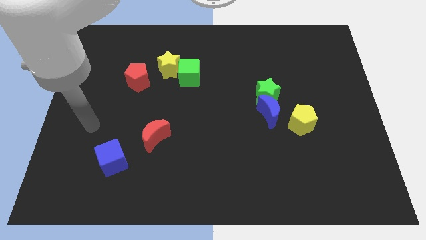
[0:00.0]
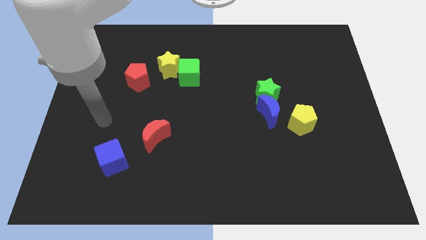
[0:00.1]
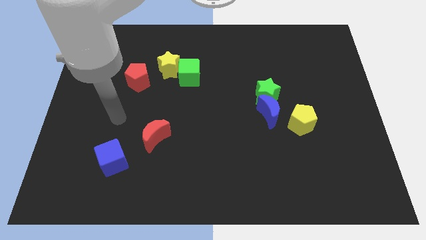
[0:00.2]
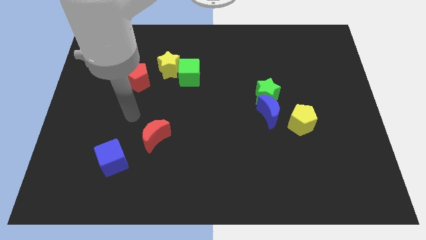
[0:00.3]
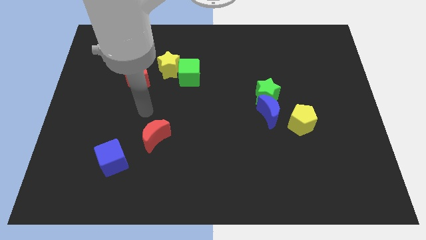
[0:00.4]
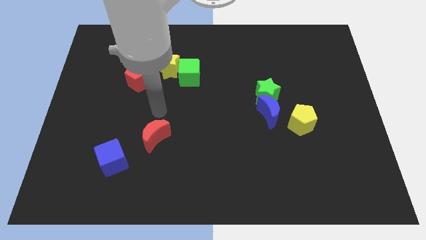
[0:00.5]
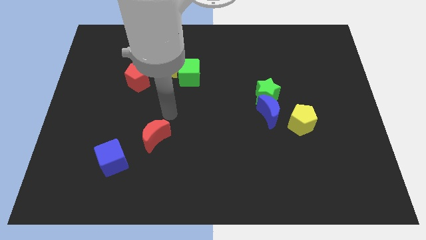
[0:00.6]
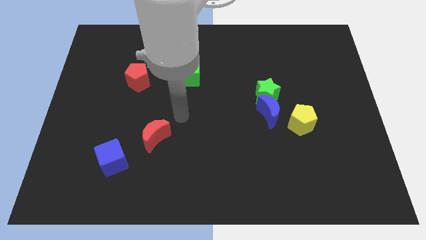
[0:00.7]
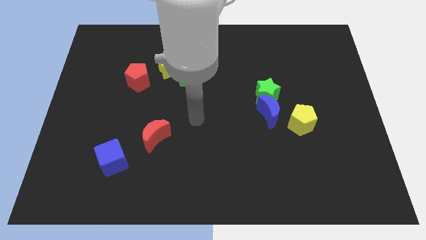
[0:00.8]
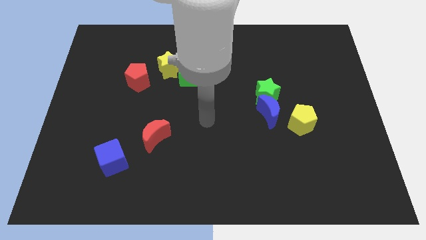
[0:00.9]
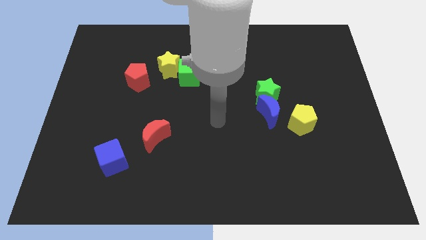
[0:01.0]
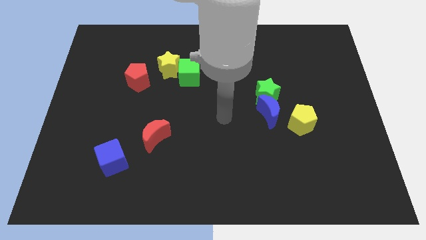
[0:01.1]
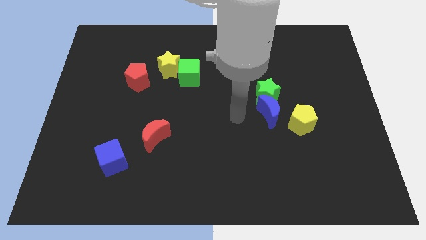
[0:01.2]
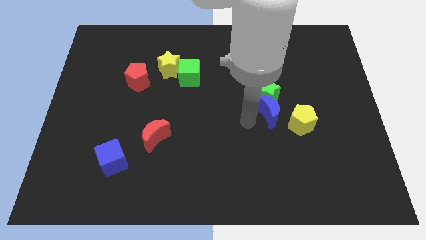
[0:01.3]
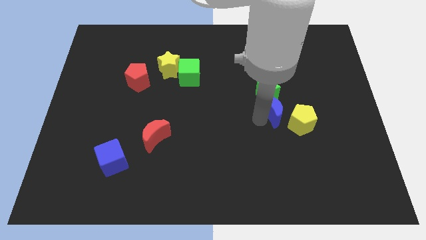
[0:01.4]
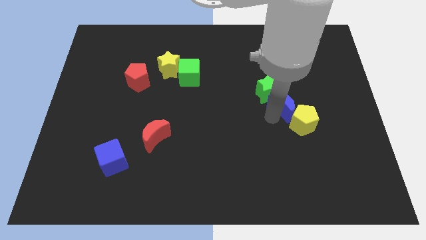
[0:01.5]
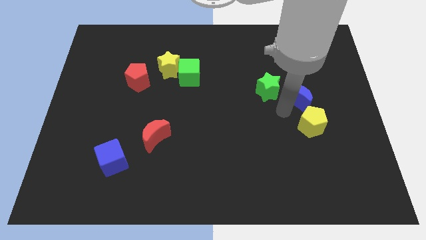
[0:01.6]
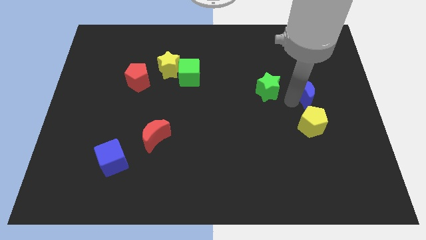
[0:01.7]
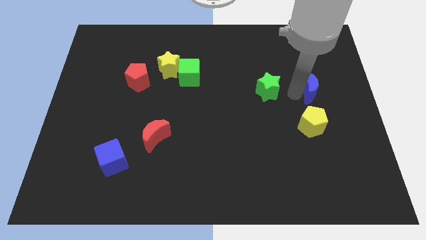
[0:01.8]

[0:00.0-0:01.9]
separate the green star from the blue moon

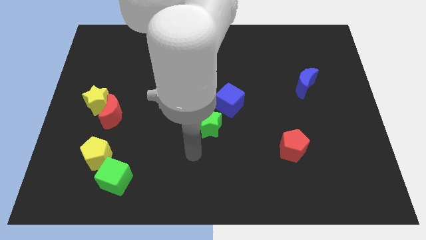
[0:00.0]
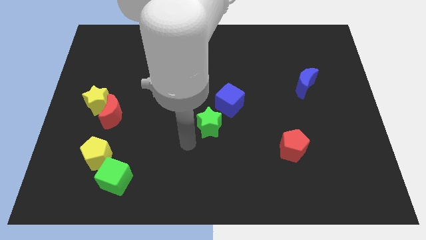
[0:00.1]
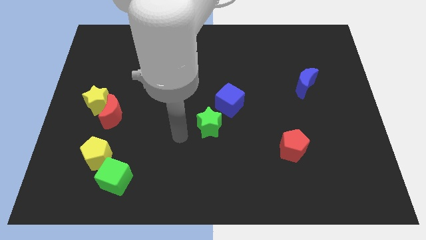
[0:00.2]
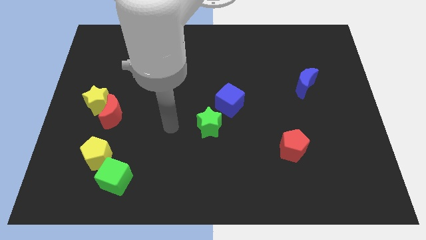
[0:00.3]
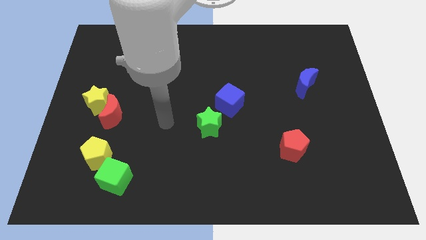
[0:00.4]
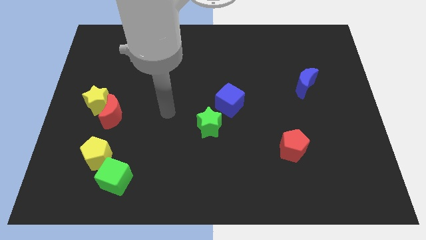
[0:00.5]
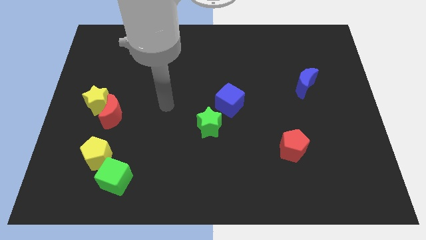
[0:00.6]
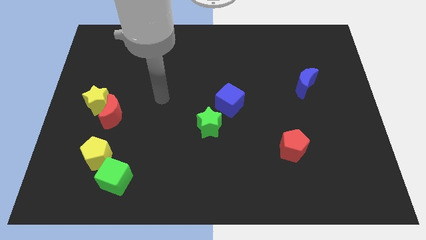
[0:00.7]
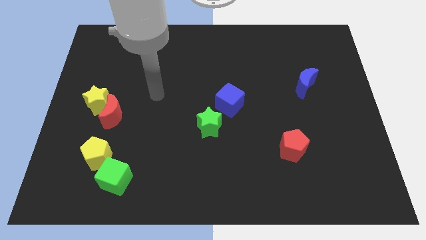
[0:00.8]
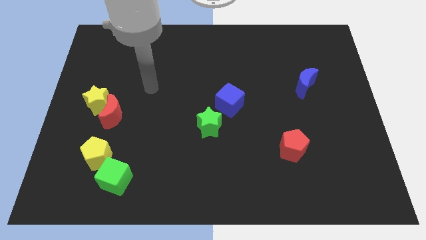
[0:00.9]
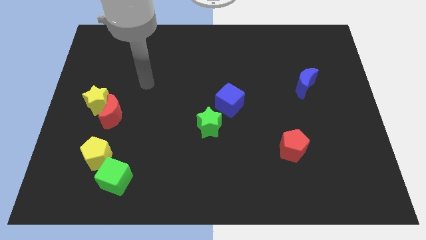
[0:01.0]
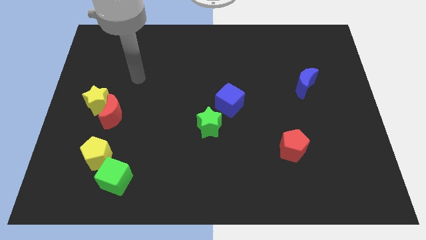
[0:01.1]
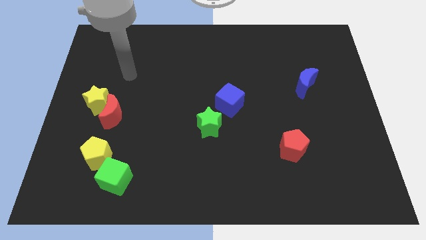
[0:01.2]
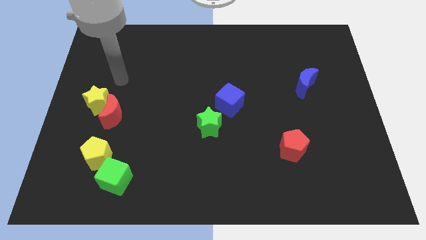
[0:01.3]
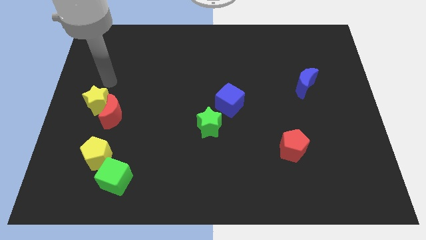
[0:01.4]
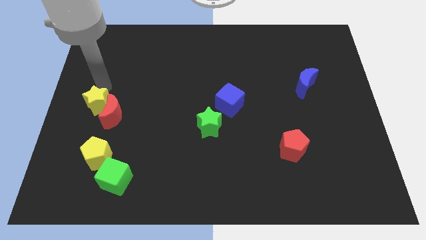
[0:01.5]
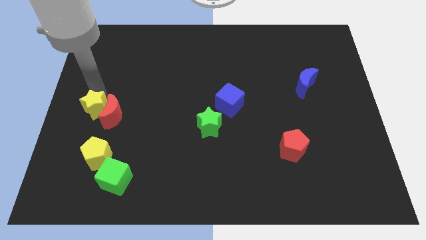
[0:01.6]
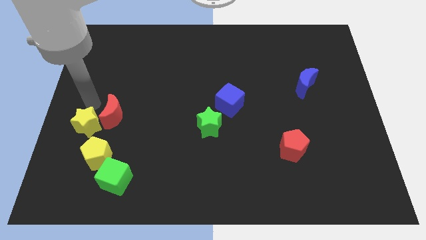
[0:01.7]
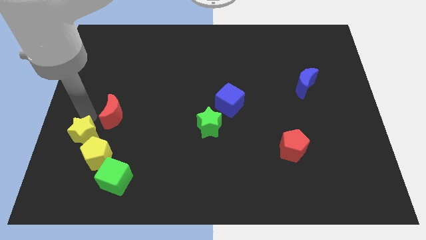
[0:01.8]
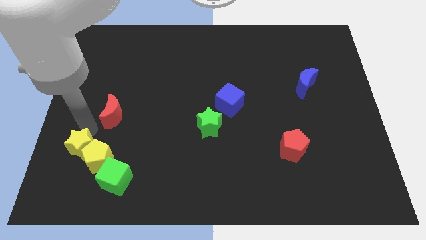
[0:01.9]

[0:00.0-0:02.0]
move the red moon away from the yellow star

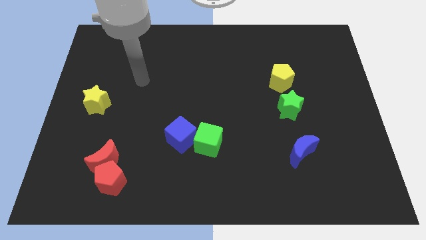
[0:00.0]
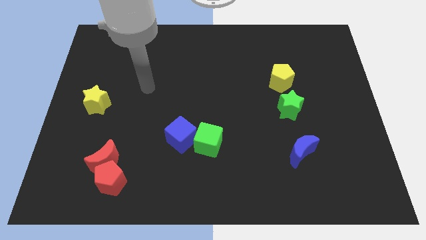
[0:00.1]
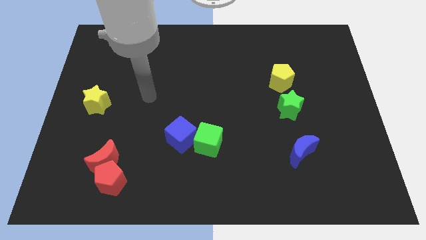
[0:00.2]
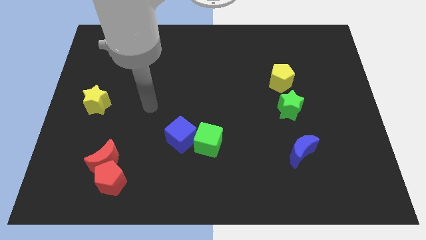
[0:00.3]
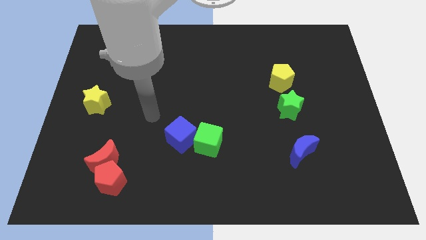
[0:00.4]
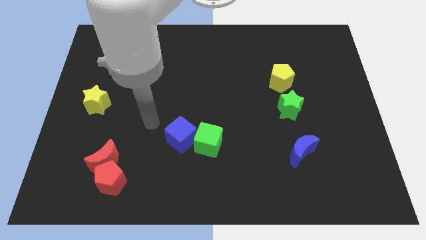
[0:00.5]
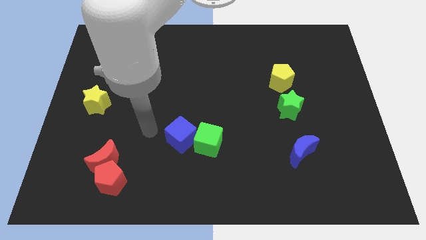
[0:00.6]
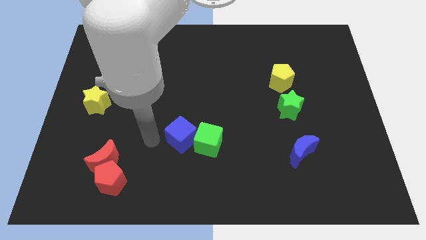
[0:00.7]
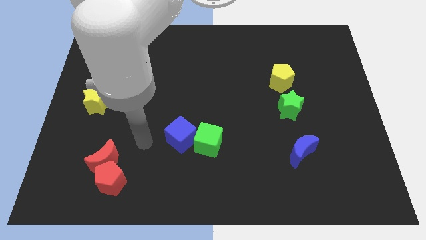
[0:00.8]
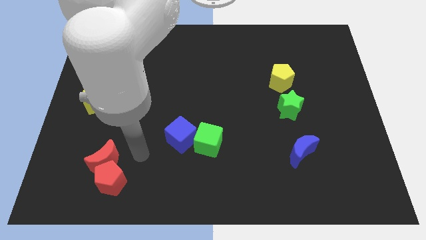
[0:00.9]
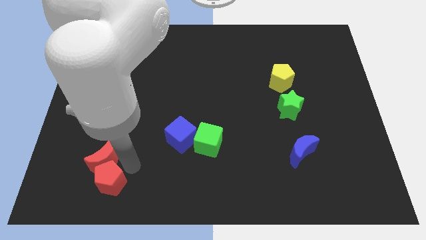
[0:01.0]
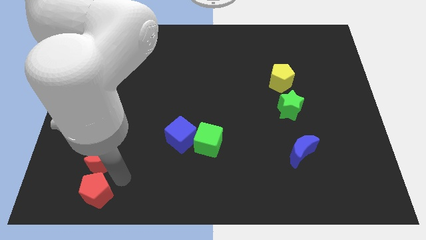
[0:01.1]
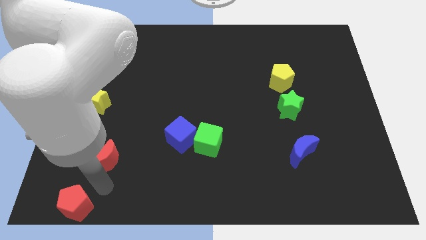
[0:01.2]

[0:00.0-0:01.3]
separate the red moon from the red pentagon

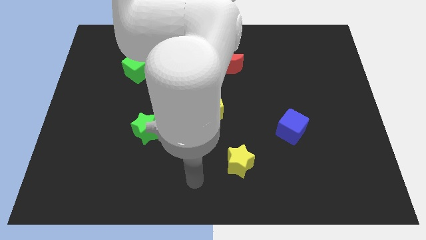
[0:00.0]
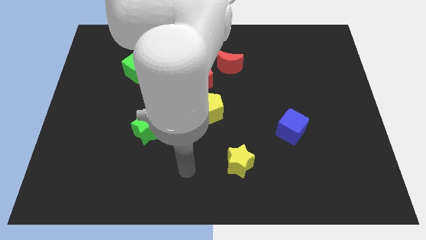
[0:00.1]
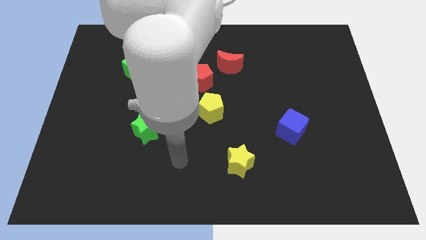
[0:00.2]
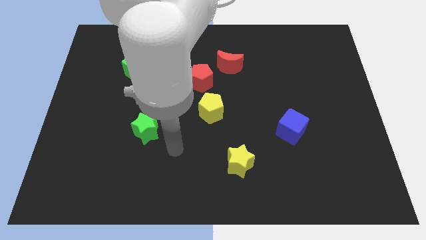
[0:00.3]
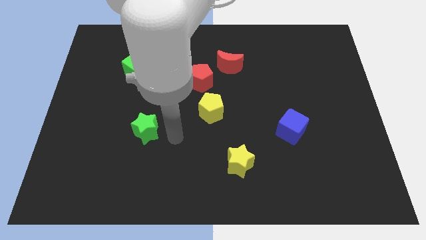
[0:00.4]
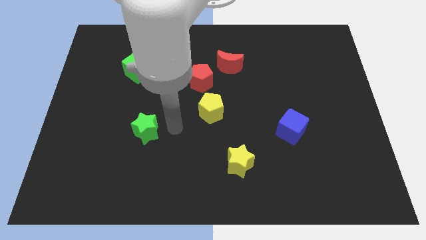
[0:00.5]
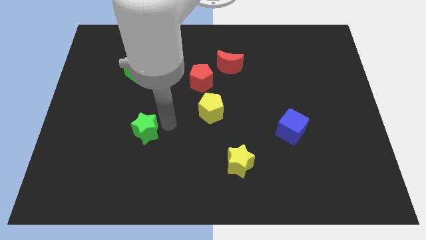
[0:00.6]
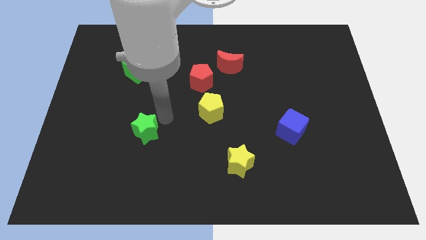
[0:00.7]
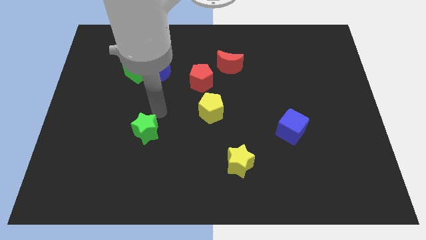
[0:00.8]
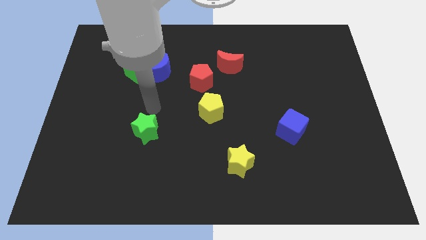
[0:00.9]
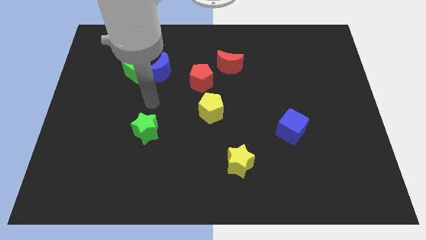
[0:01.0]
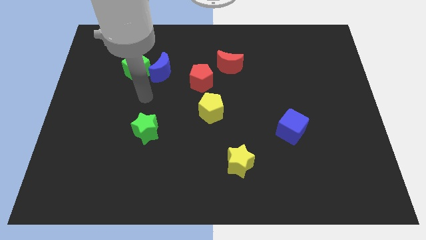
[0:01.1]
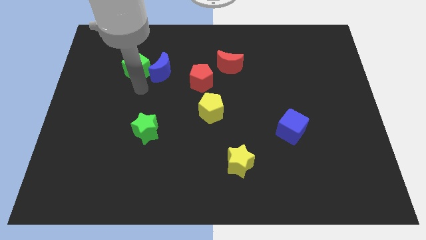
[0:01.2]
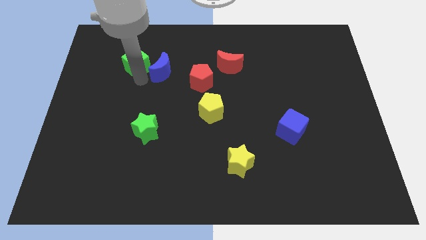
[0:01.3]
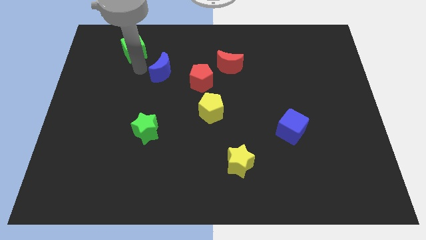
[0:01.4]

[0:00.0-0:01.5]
move the blue moon away from the green cube

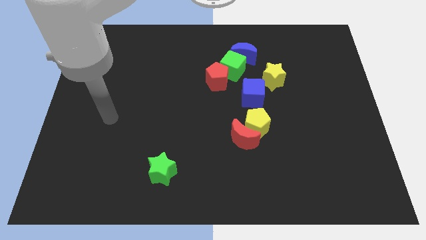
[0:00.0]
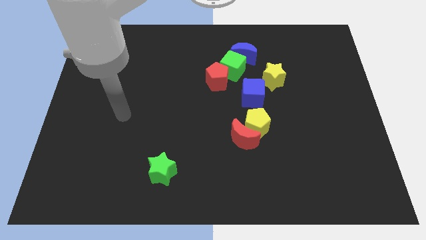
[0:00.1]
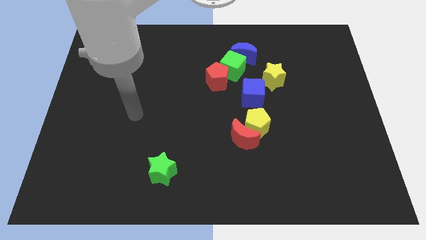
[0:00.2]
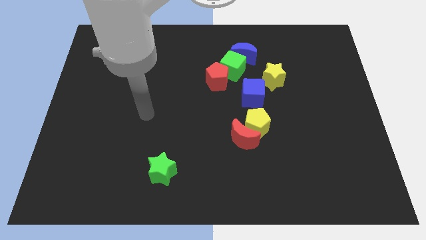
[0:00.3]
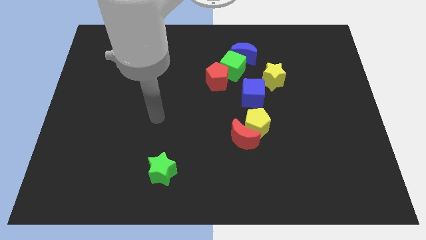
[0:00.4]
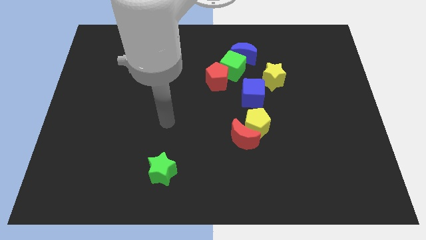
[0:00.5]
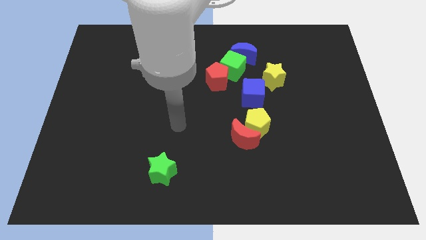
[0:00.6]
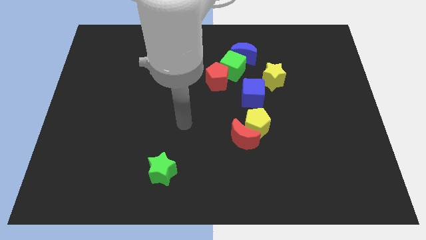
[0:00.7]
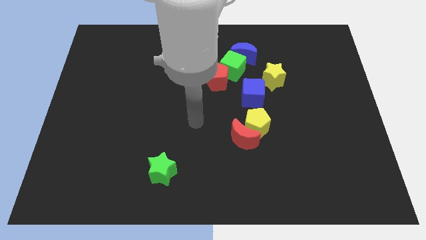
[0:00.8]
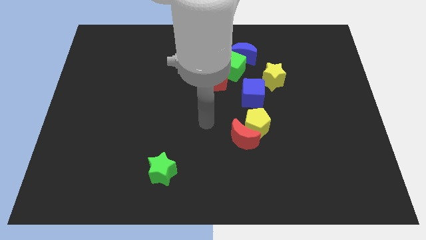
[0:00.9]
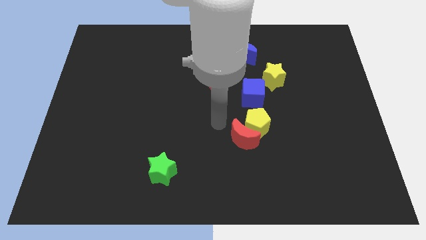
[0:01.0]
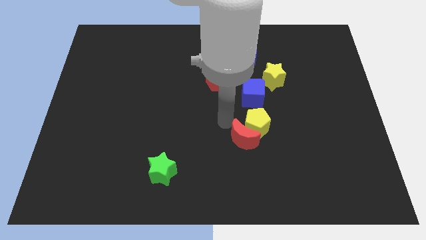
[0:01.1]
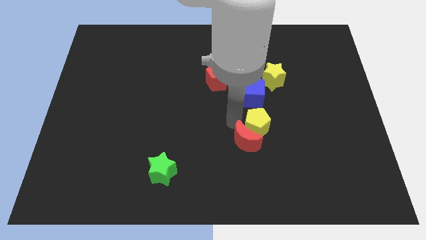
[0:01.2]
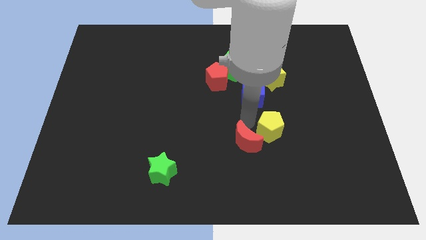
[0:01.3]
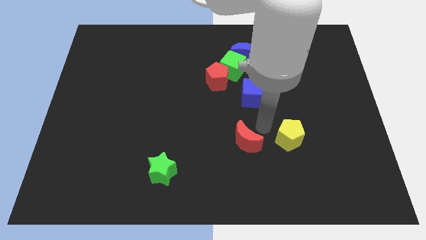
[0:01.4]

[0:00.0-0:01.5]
move the red moon away from the yellow pentagon

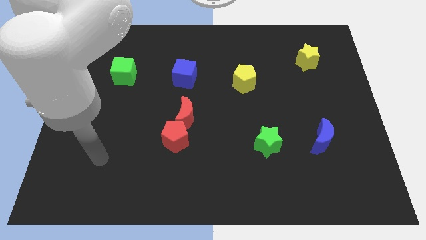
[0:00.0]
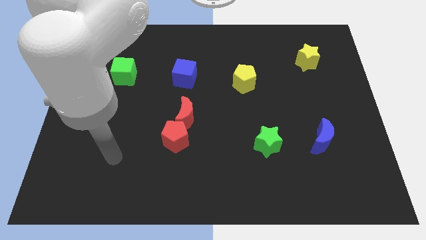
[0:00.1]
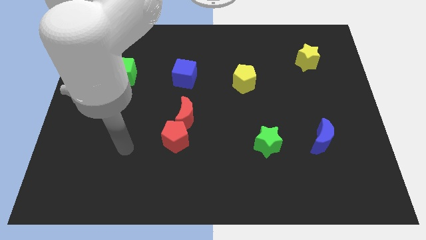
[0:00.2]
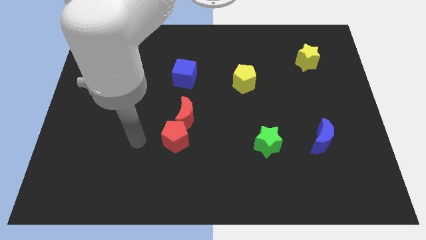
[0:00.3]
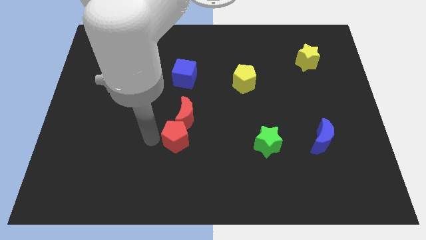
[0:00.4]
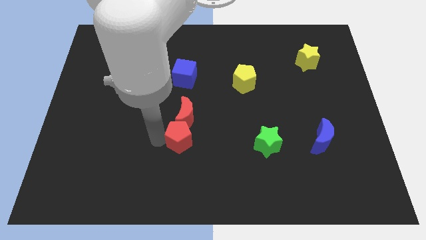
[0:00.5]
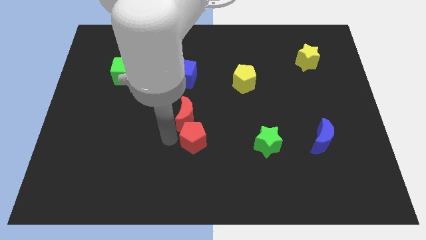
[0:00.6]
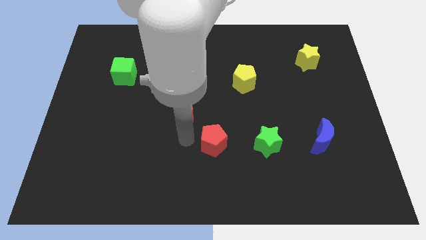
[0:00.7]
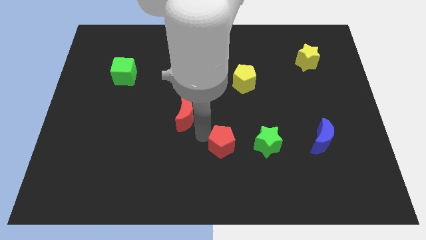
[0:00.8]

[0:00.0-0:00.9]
pull the red moon apart from the red pentagon

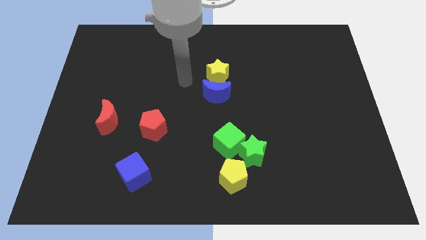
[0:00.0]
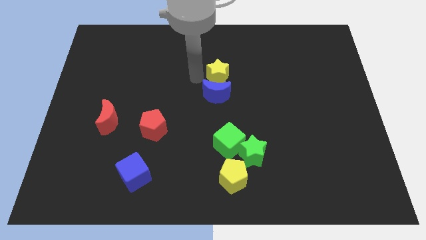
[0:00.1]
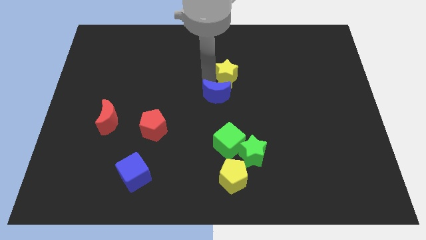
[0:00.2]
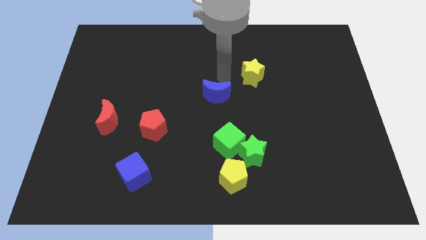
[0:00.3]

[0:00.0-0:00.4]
move the blue moon away from the yellow star
